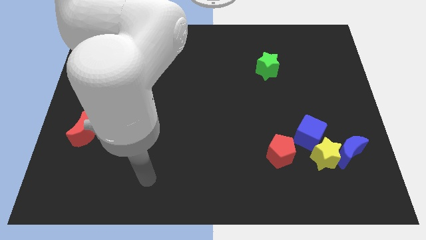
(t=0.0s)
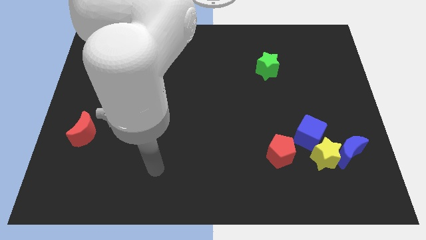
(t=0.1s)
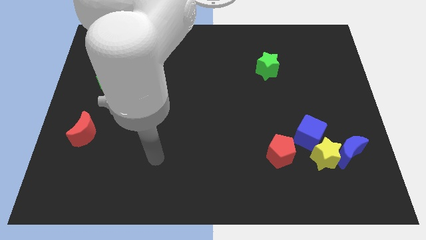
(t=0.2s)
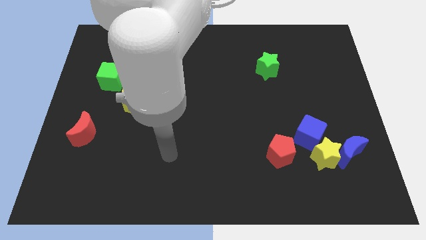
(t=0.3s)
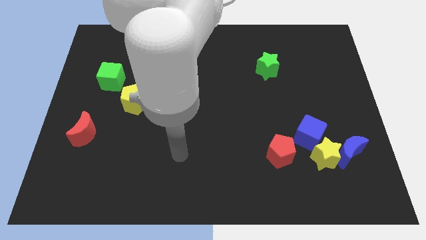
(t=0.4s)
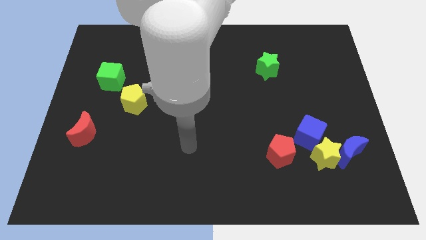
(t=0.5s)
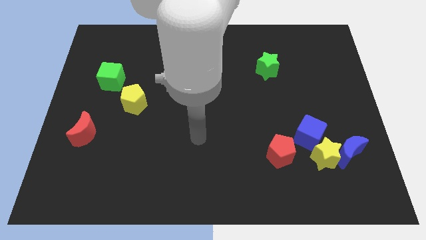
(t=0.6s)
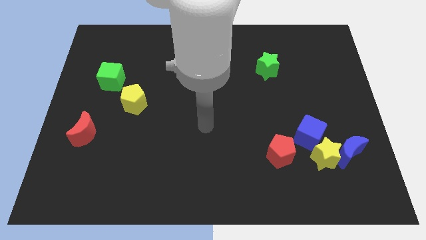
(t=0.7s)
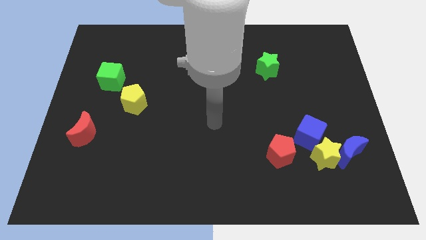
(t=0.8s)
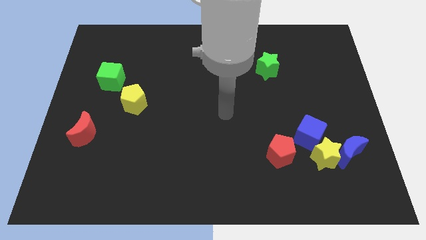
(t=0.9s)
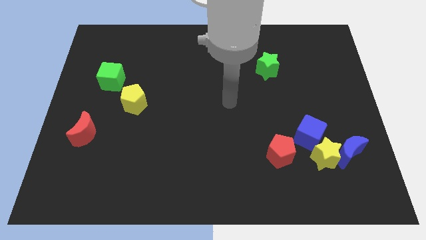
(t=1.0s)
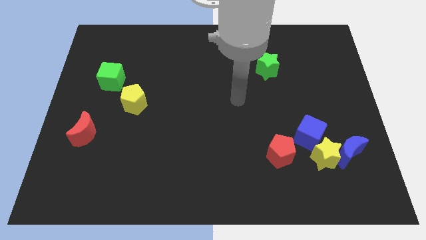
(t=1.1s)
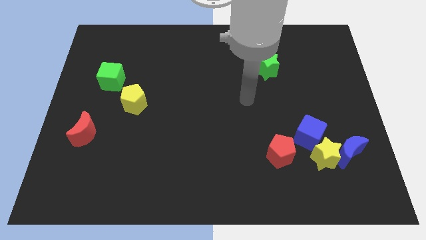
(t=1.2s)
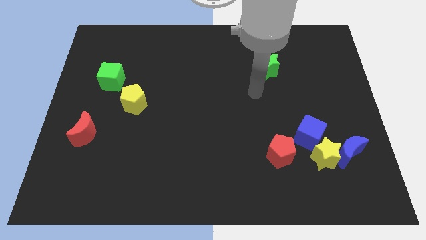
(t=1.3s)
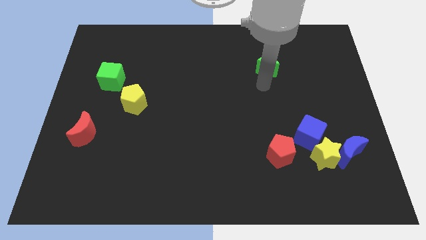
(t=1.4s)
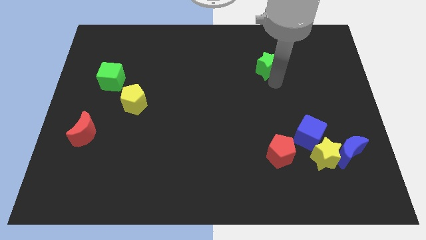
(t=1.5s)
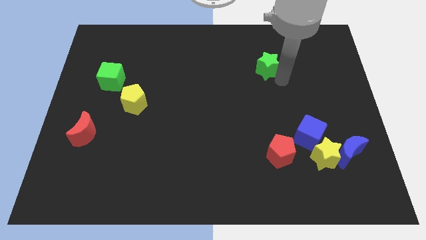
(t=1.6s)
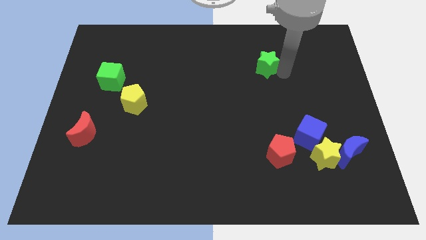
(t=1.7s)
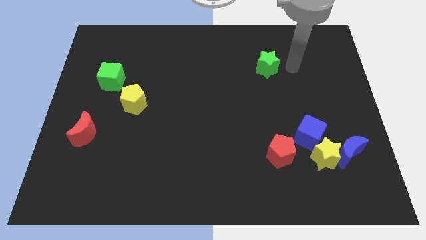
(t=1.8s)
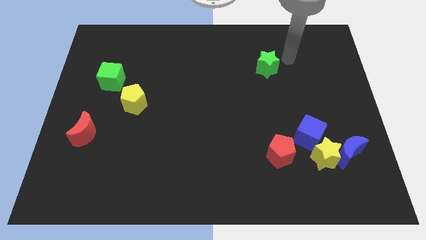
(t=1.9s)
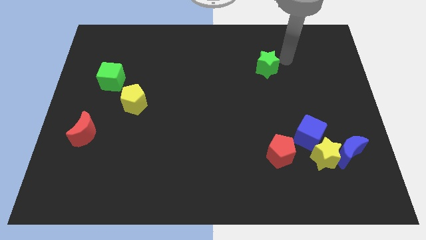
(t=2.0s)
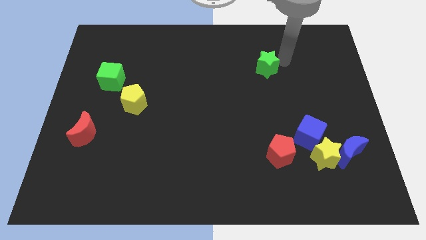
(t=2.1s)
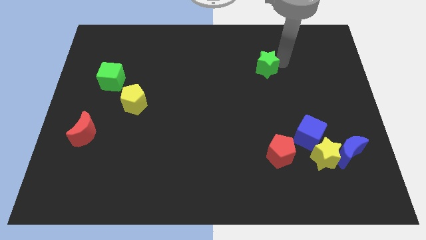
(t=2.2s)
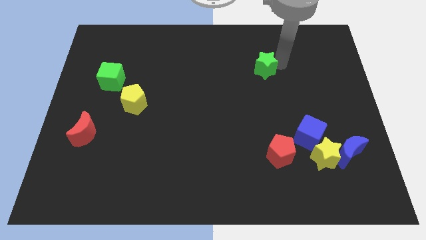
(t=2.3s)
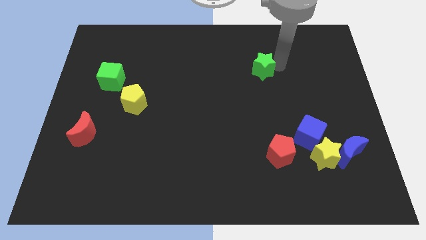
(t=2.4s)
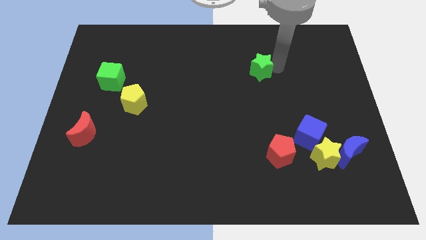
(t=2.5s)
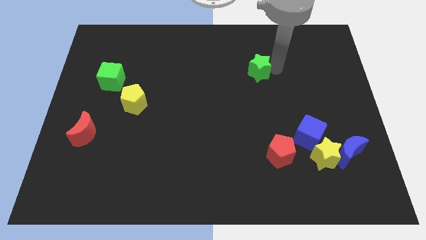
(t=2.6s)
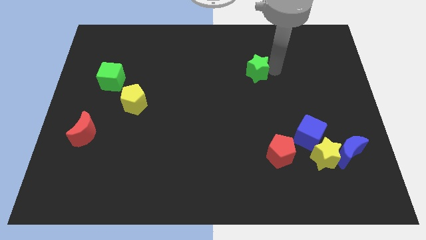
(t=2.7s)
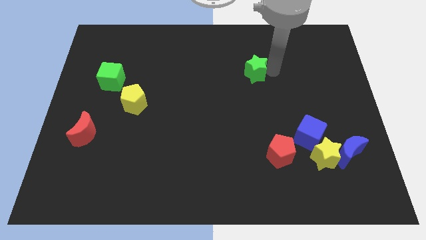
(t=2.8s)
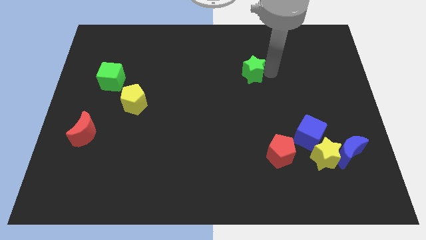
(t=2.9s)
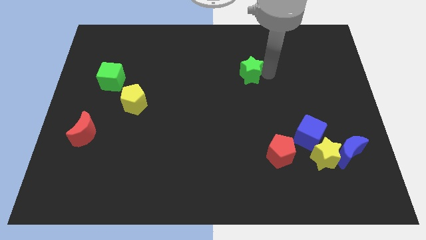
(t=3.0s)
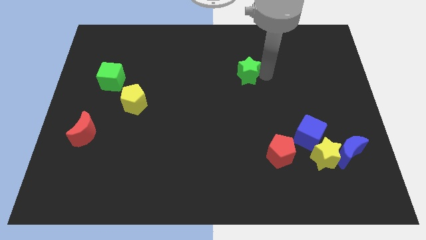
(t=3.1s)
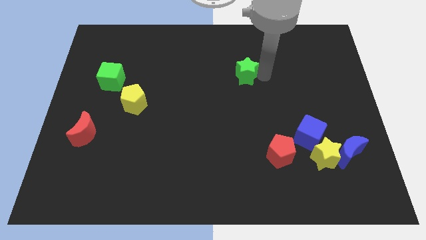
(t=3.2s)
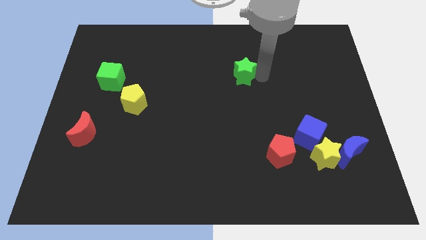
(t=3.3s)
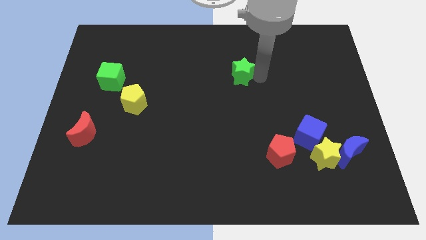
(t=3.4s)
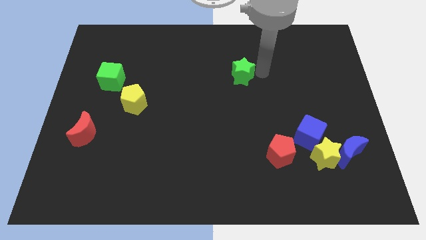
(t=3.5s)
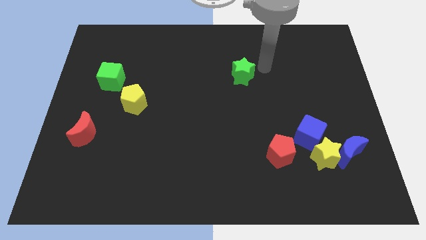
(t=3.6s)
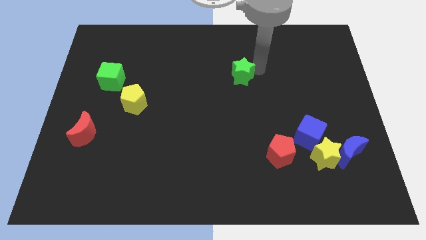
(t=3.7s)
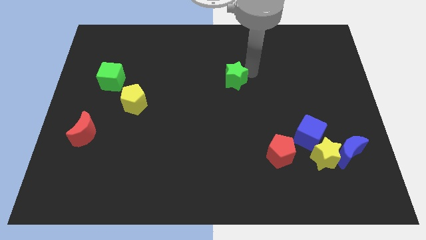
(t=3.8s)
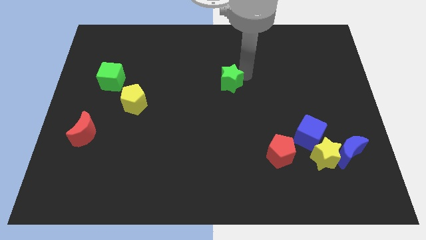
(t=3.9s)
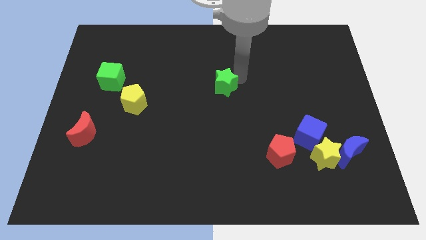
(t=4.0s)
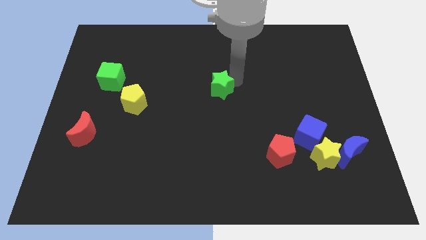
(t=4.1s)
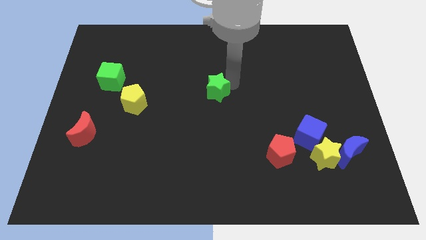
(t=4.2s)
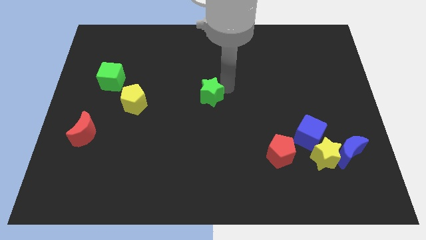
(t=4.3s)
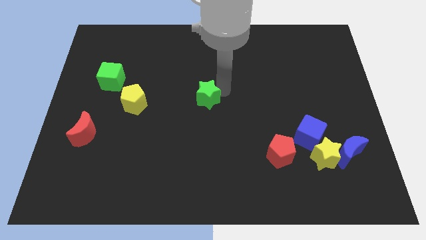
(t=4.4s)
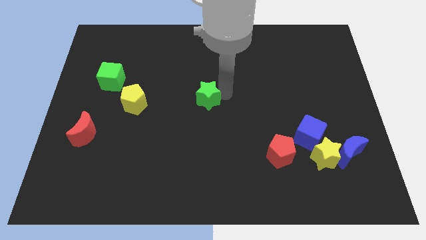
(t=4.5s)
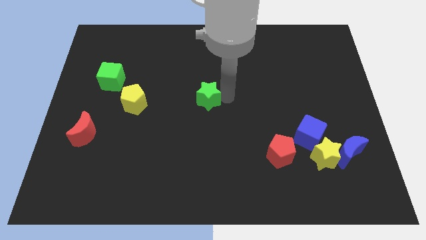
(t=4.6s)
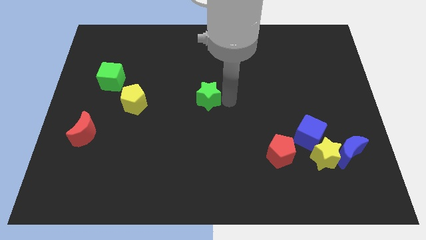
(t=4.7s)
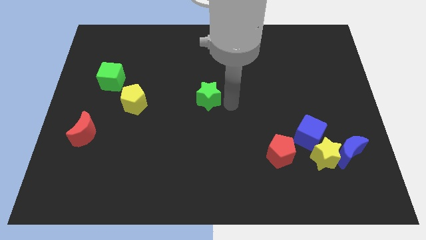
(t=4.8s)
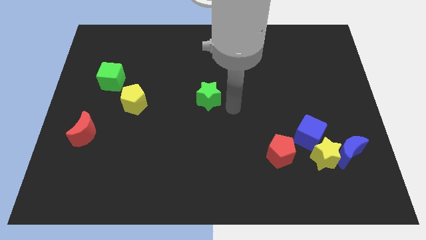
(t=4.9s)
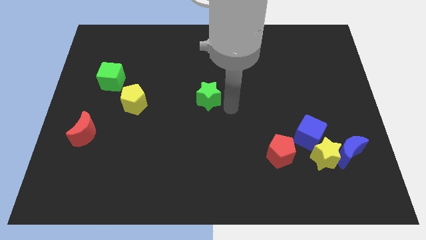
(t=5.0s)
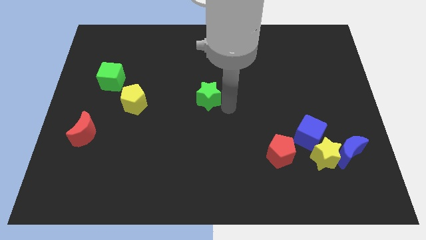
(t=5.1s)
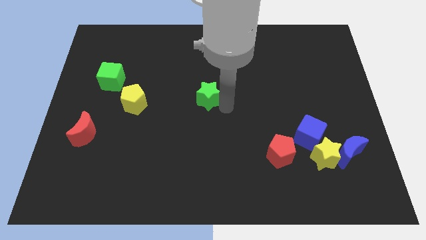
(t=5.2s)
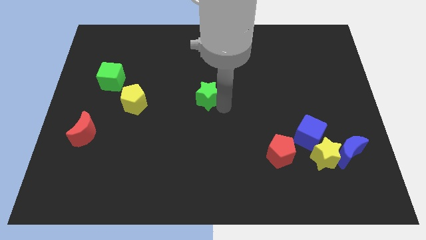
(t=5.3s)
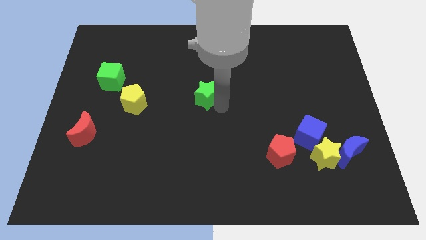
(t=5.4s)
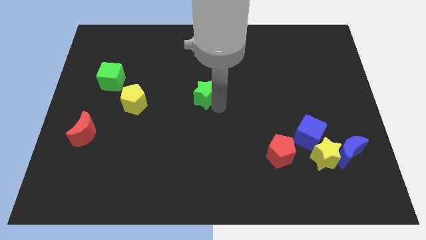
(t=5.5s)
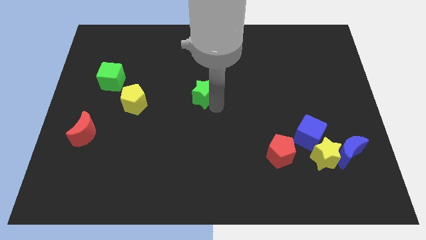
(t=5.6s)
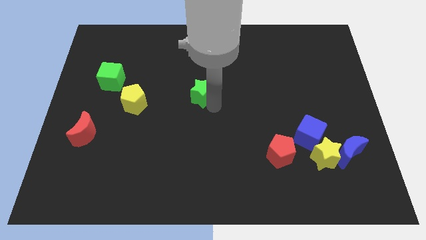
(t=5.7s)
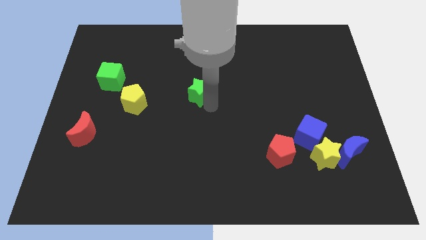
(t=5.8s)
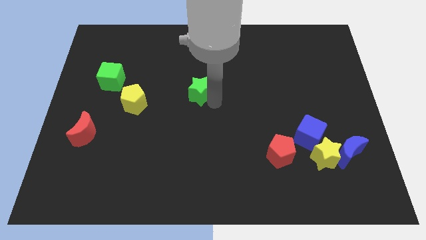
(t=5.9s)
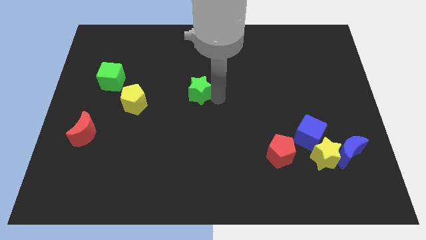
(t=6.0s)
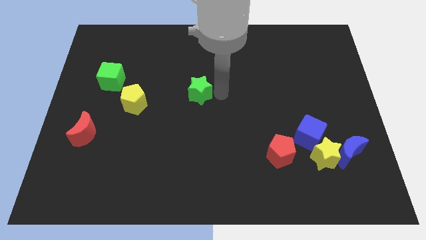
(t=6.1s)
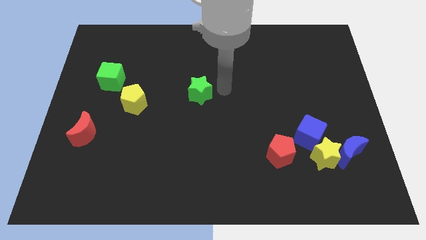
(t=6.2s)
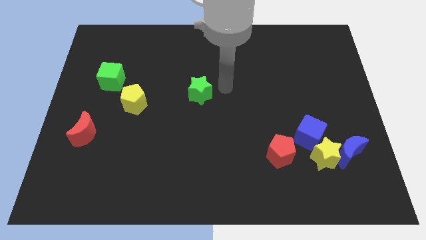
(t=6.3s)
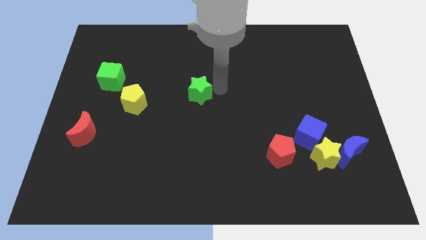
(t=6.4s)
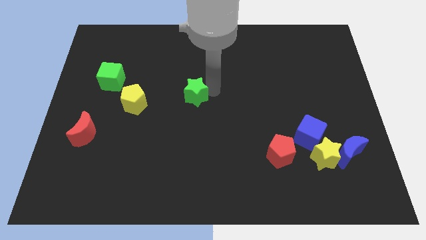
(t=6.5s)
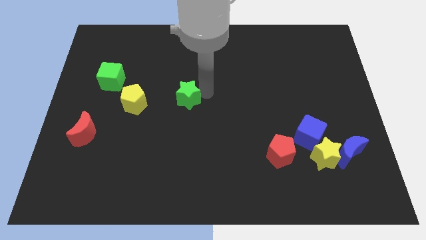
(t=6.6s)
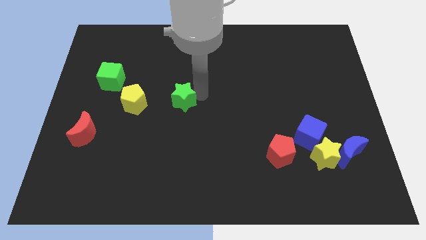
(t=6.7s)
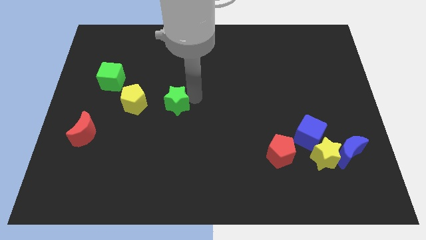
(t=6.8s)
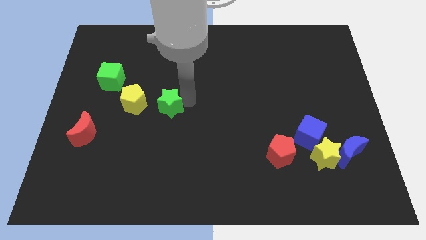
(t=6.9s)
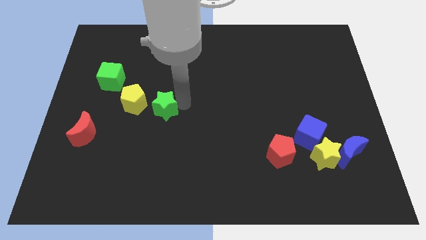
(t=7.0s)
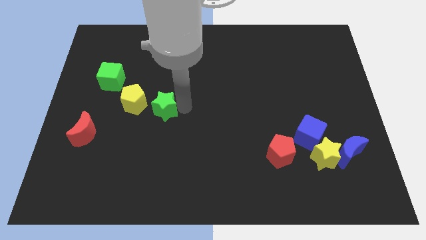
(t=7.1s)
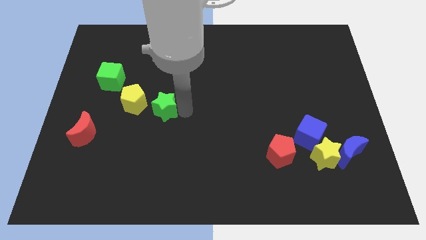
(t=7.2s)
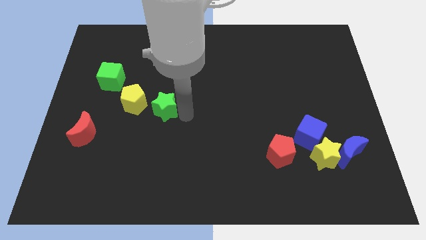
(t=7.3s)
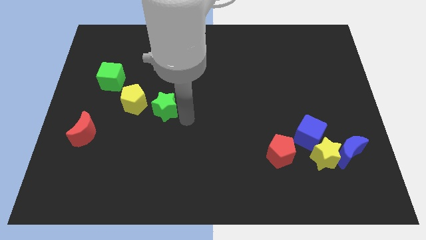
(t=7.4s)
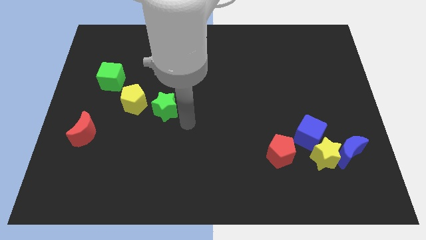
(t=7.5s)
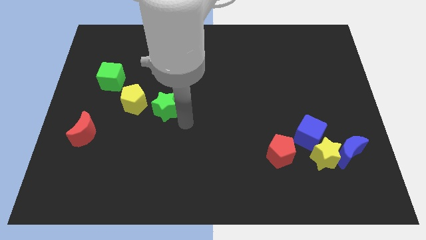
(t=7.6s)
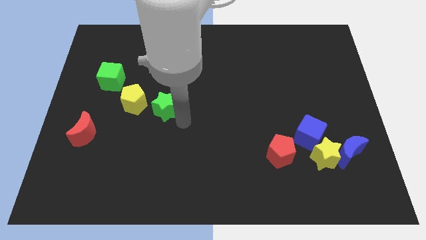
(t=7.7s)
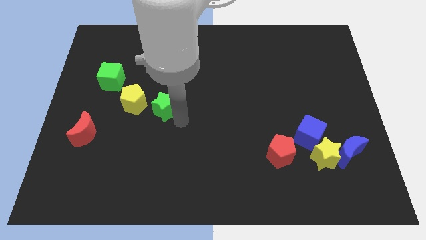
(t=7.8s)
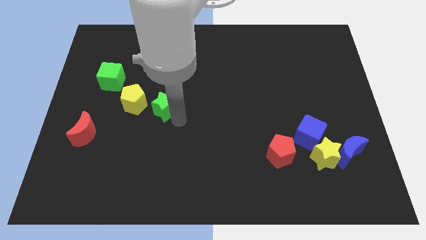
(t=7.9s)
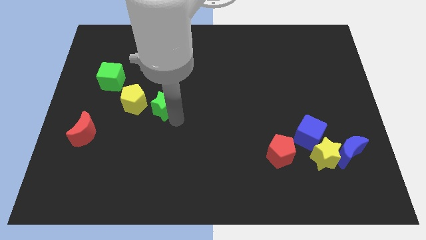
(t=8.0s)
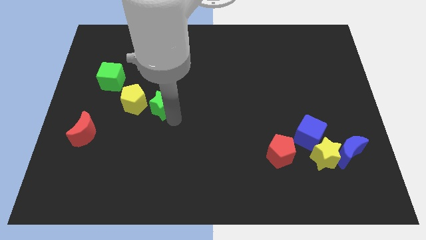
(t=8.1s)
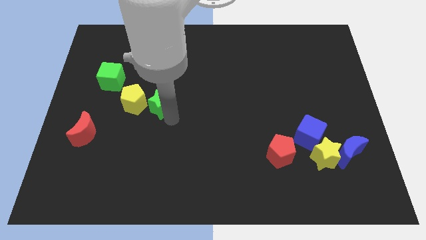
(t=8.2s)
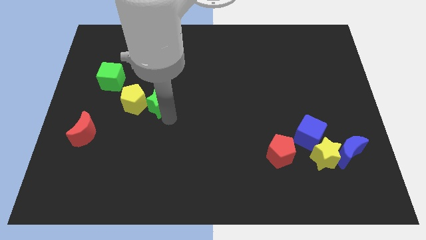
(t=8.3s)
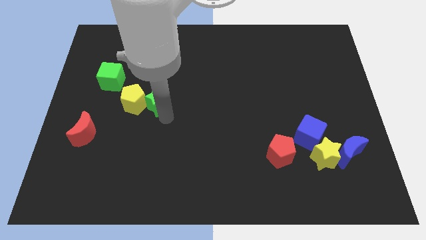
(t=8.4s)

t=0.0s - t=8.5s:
move the green star close to the yellow pentagon
